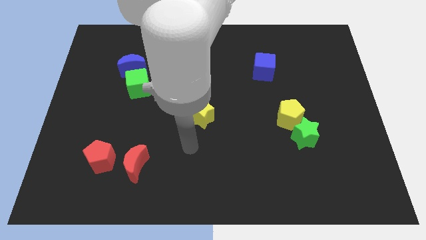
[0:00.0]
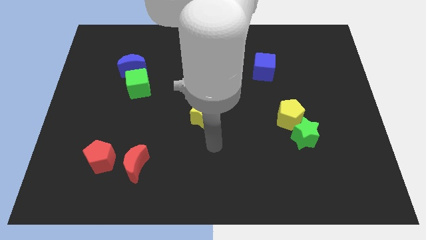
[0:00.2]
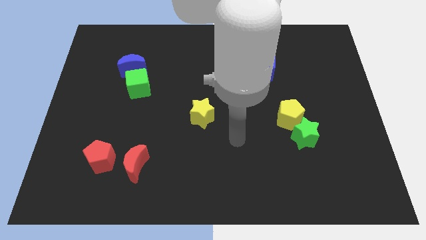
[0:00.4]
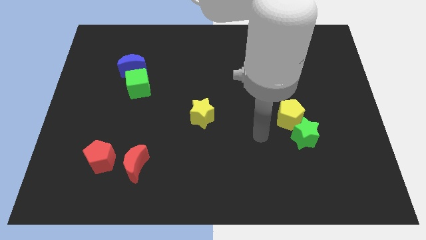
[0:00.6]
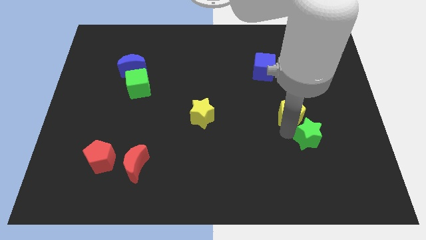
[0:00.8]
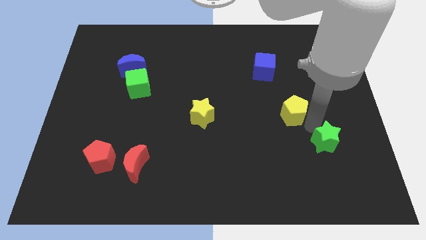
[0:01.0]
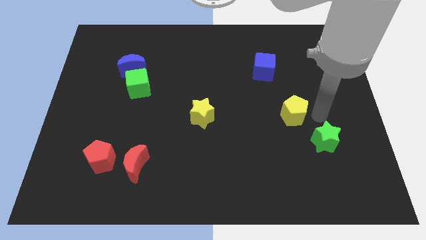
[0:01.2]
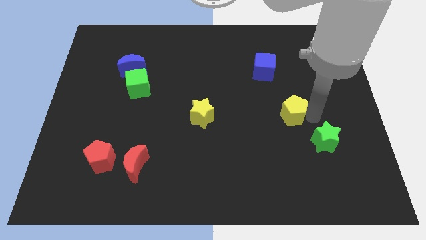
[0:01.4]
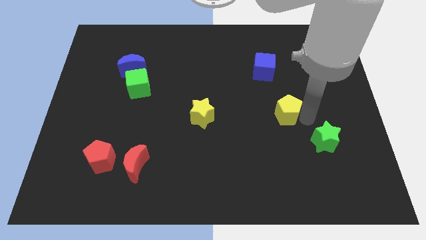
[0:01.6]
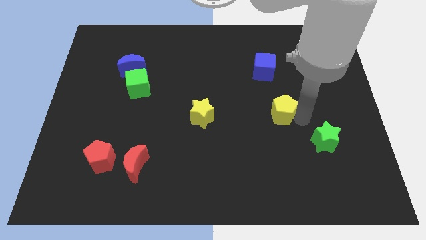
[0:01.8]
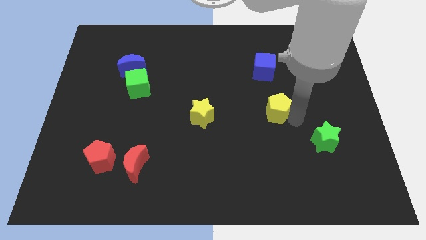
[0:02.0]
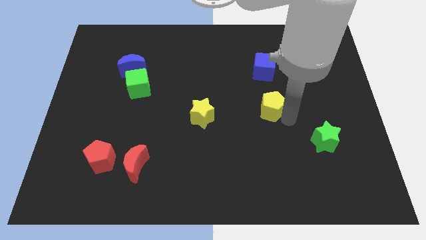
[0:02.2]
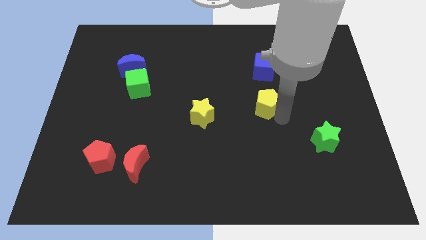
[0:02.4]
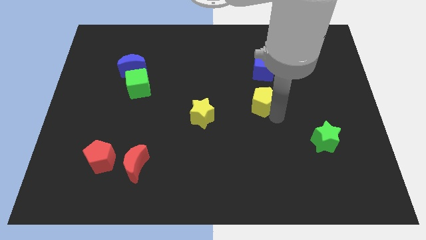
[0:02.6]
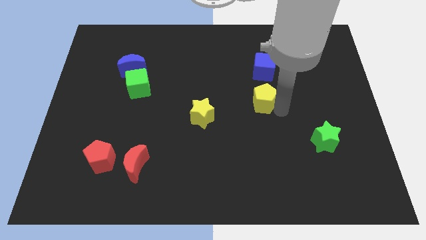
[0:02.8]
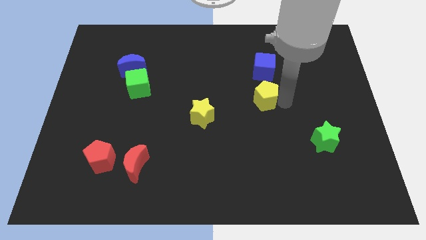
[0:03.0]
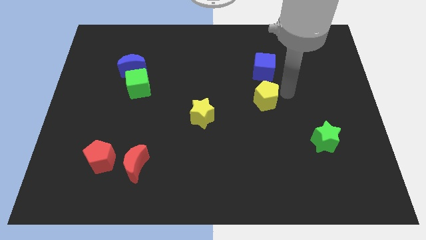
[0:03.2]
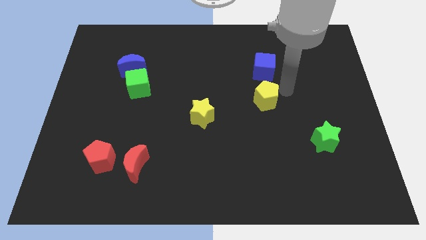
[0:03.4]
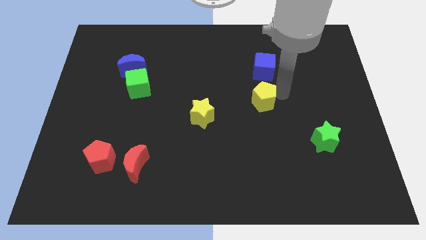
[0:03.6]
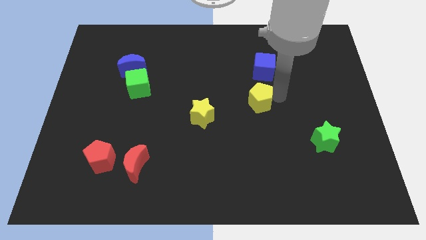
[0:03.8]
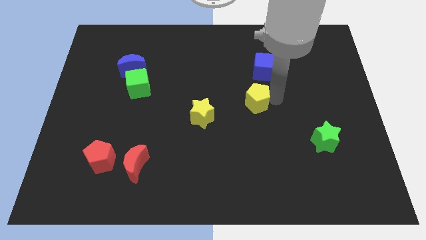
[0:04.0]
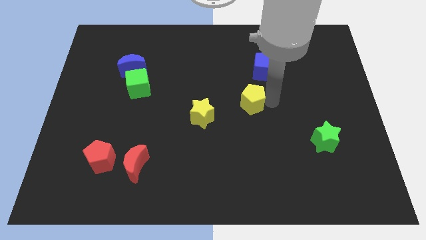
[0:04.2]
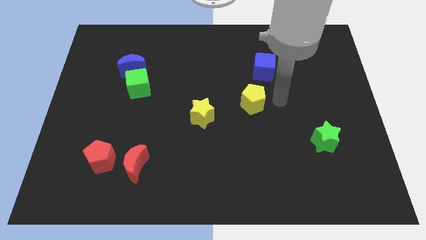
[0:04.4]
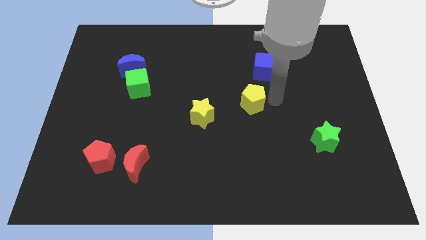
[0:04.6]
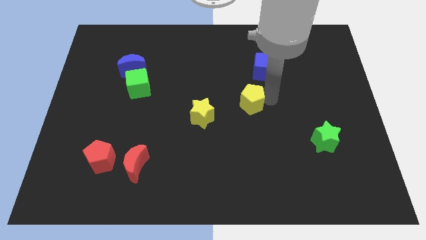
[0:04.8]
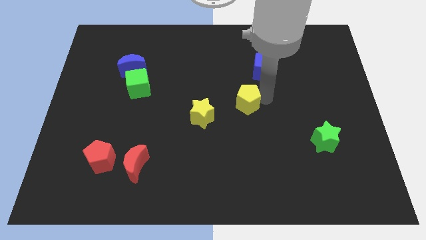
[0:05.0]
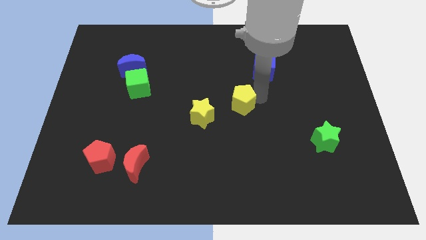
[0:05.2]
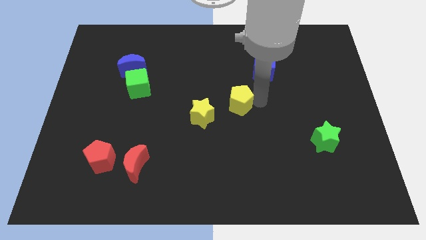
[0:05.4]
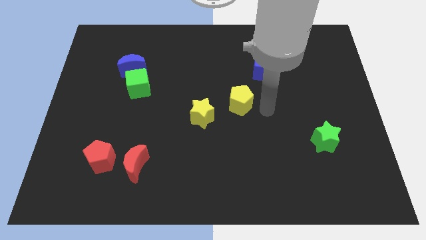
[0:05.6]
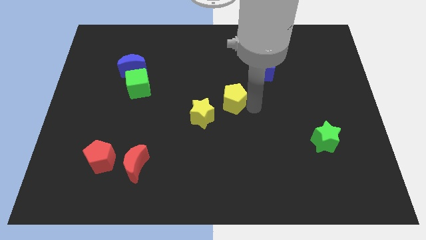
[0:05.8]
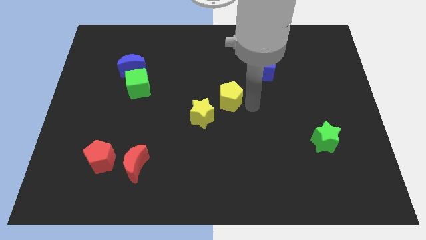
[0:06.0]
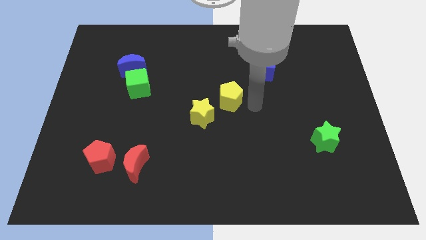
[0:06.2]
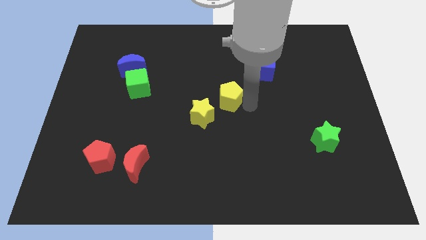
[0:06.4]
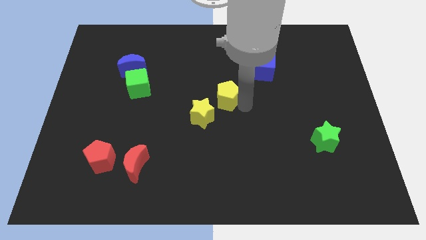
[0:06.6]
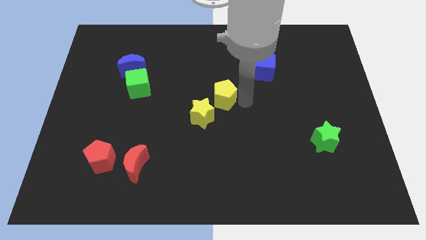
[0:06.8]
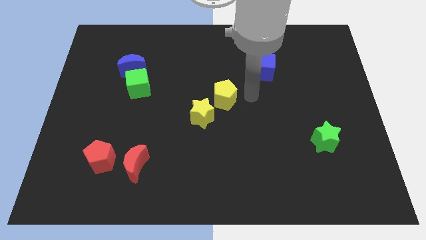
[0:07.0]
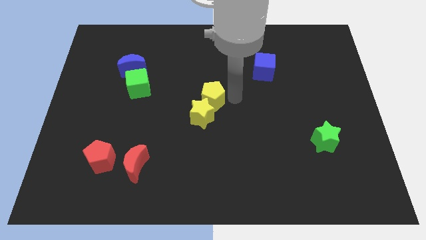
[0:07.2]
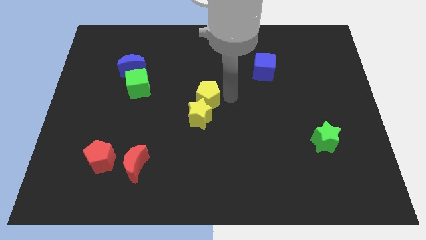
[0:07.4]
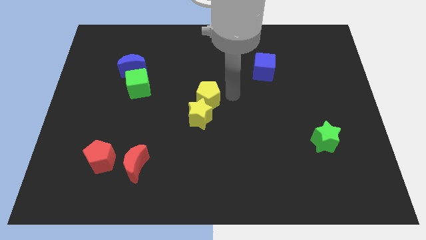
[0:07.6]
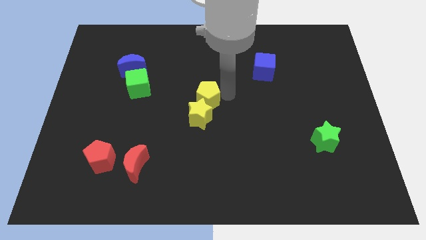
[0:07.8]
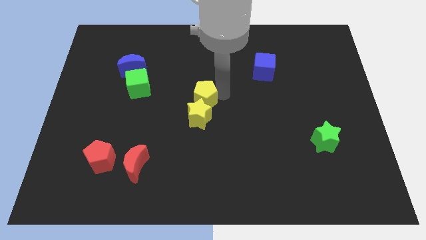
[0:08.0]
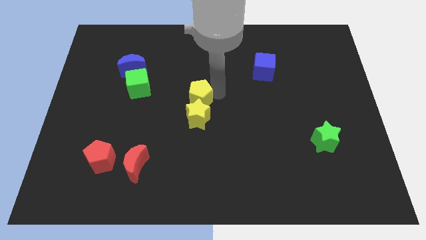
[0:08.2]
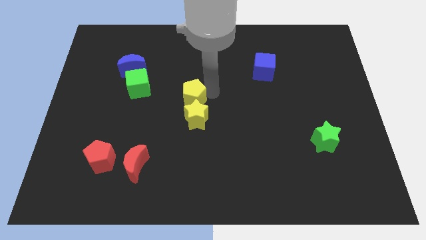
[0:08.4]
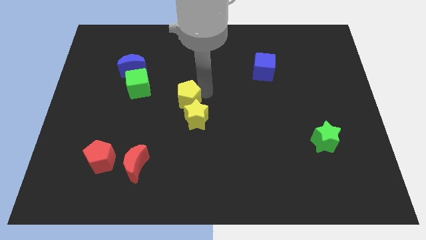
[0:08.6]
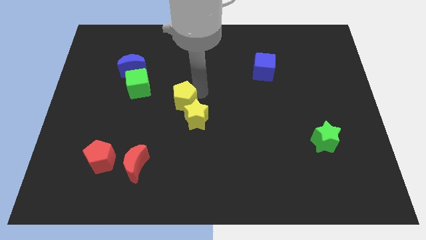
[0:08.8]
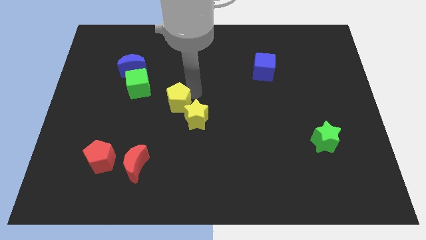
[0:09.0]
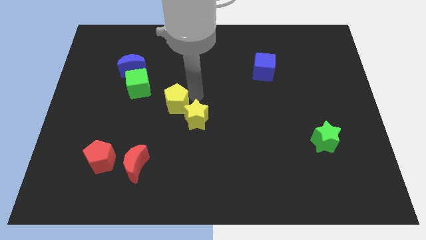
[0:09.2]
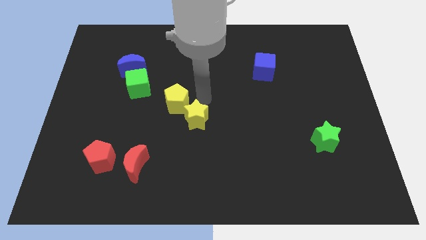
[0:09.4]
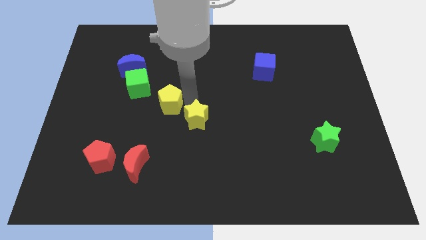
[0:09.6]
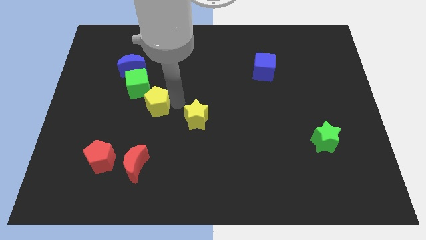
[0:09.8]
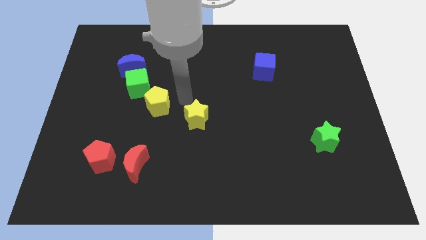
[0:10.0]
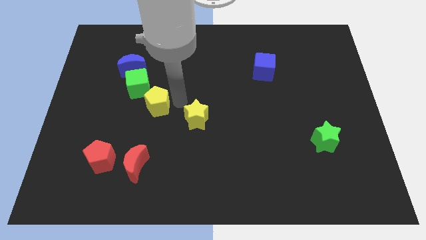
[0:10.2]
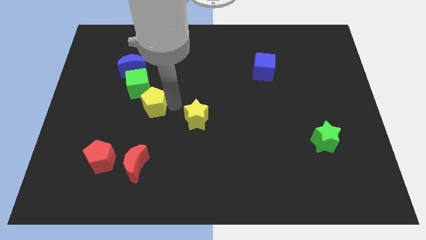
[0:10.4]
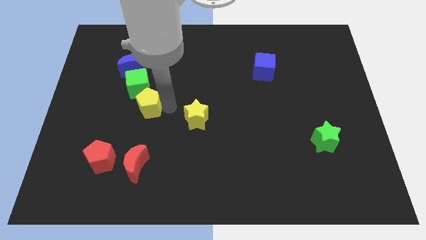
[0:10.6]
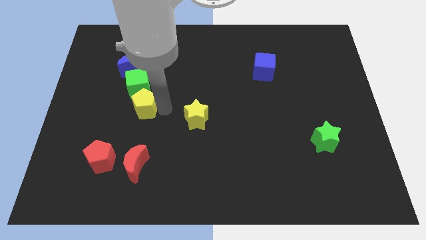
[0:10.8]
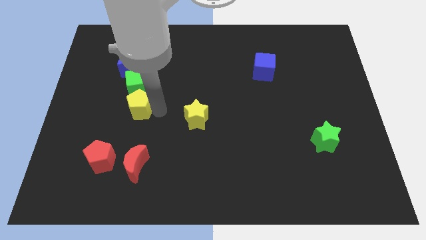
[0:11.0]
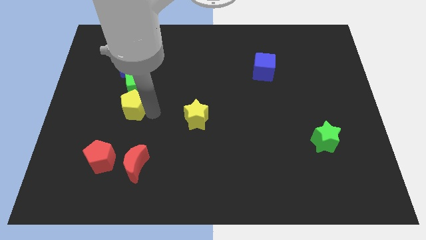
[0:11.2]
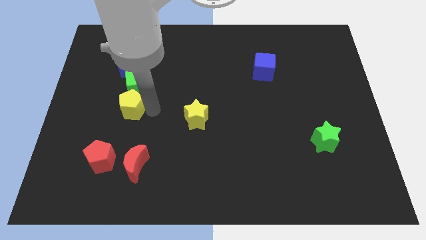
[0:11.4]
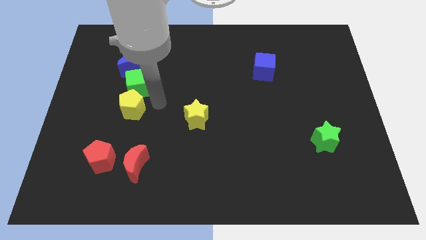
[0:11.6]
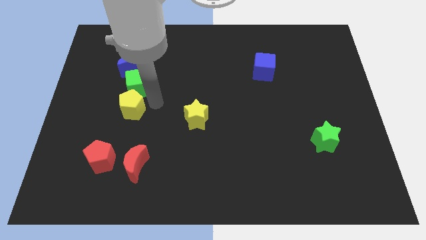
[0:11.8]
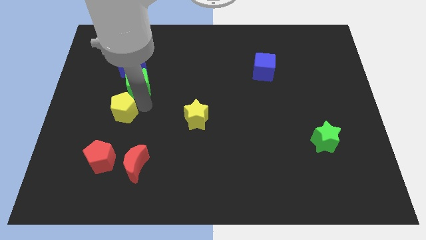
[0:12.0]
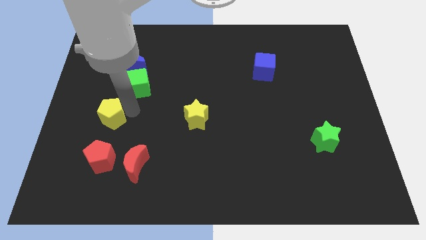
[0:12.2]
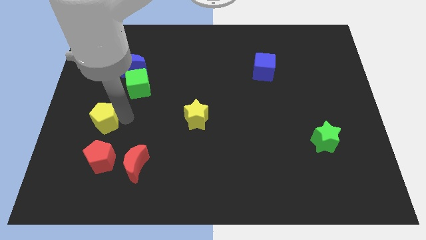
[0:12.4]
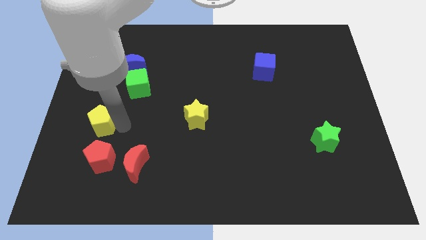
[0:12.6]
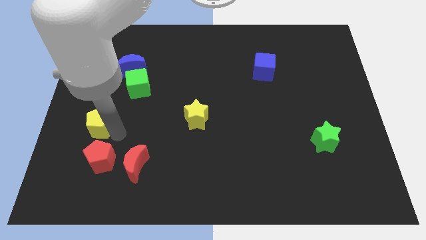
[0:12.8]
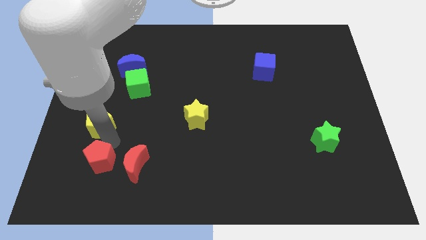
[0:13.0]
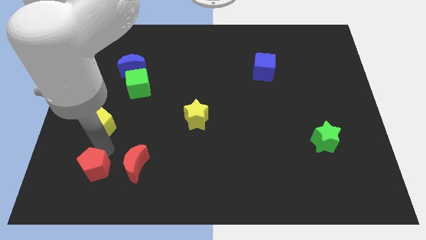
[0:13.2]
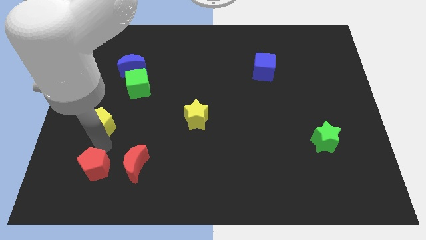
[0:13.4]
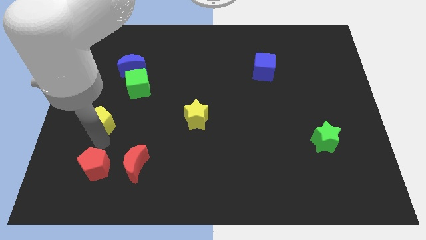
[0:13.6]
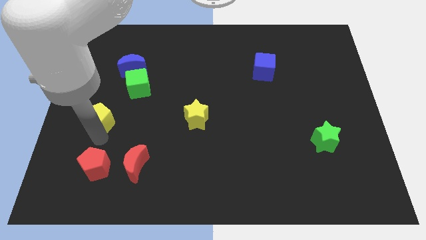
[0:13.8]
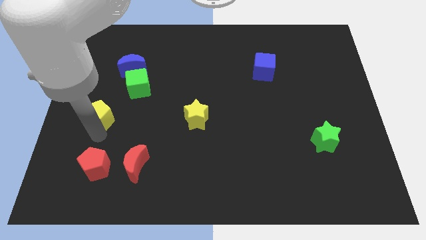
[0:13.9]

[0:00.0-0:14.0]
slide the yellow pentagon to the left side of the board
